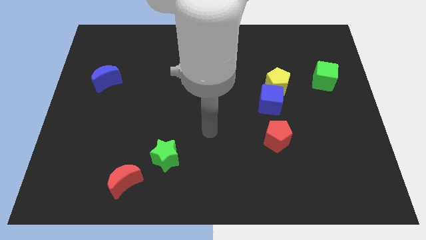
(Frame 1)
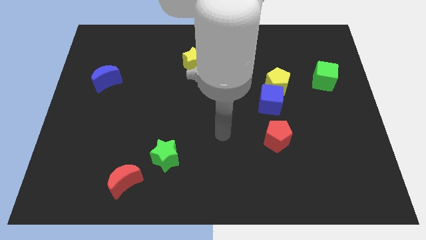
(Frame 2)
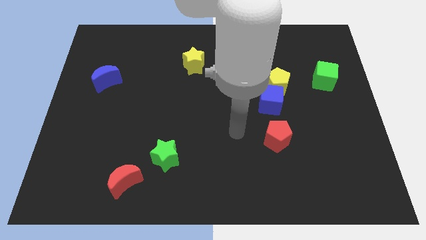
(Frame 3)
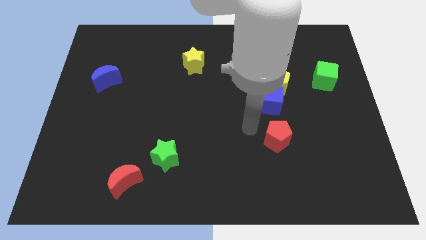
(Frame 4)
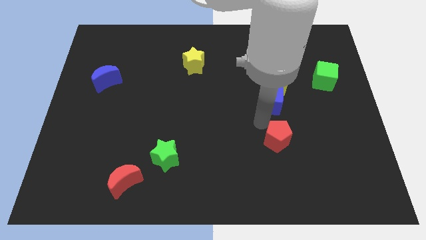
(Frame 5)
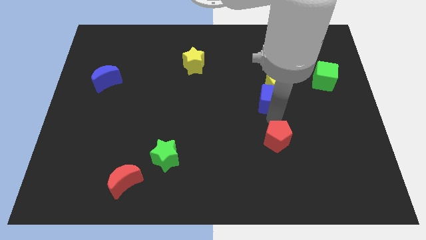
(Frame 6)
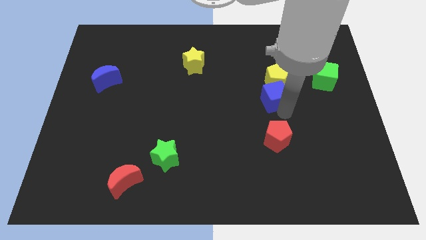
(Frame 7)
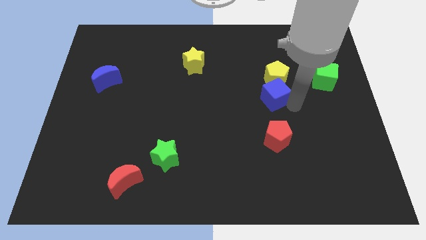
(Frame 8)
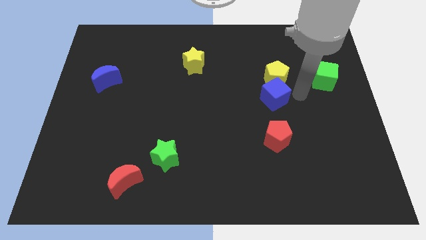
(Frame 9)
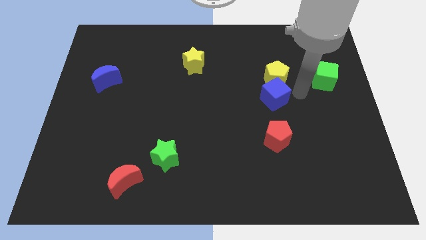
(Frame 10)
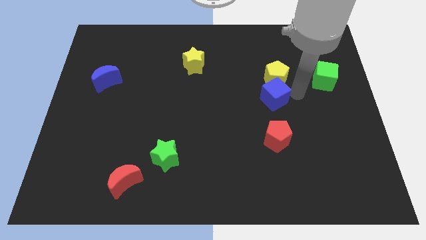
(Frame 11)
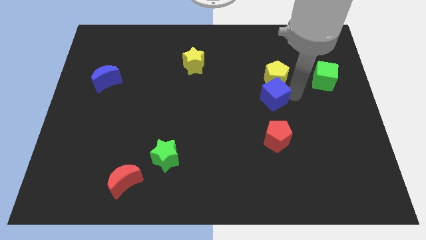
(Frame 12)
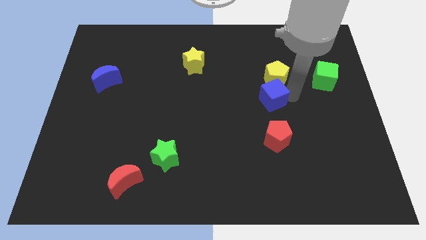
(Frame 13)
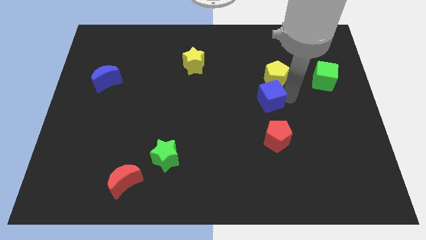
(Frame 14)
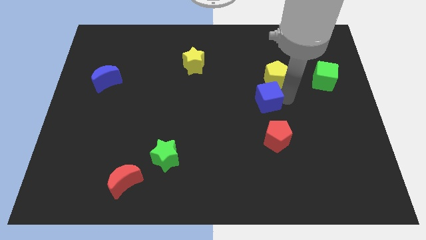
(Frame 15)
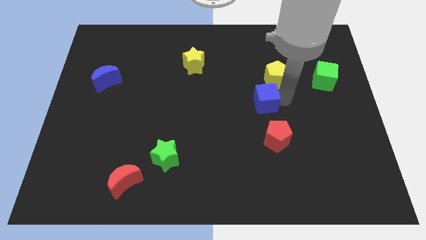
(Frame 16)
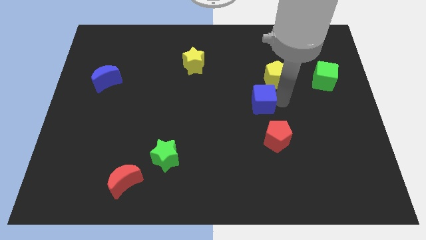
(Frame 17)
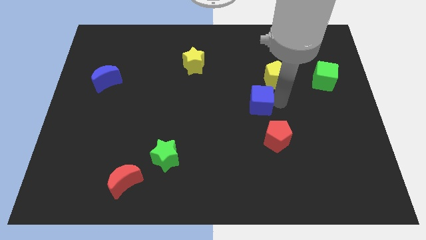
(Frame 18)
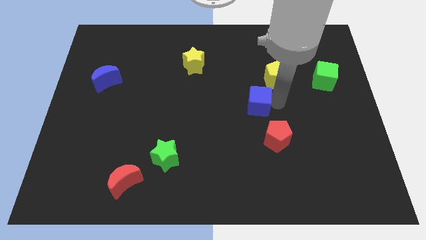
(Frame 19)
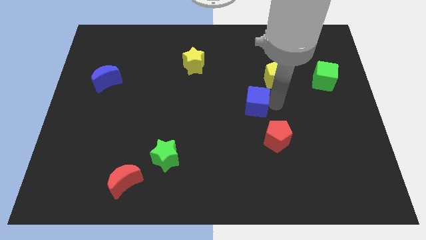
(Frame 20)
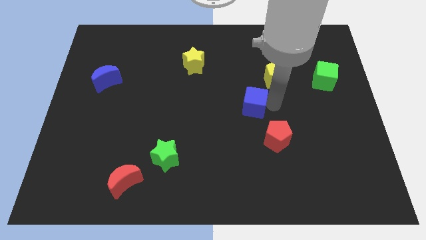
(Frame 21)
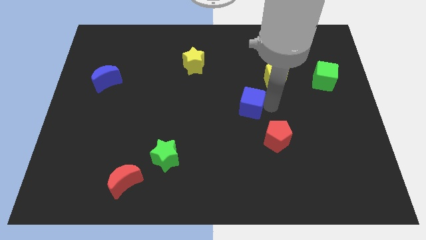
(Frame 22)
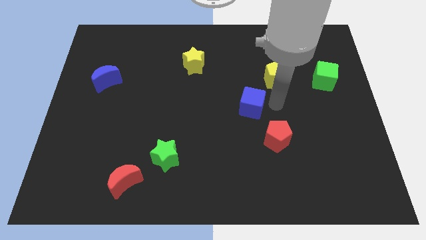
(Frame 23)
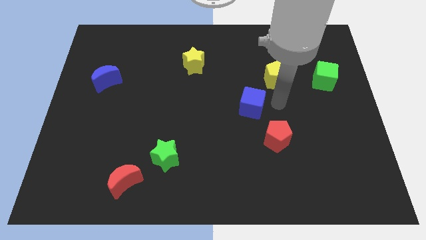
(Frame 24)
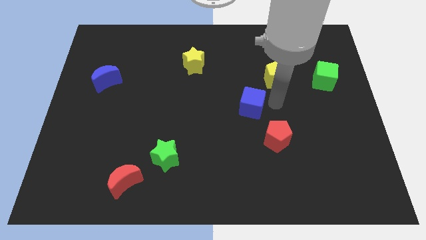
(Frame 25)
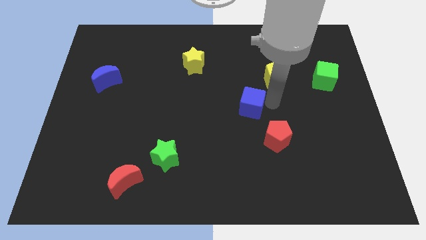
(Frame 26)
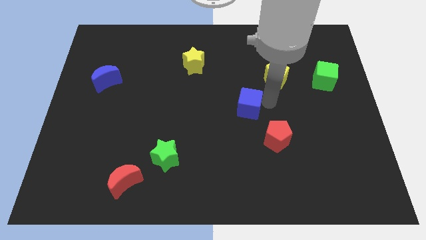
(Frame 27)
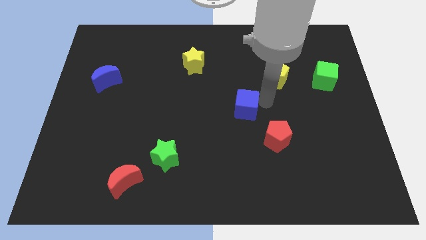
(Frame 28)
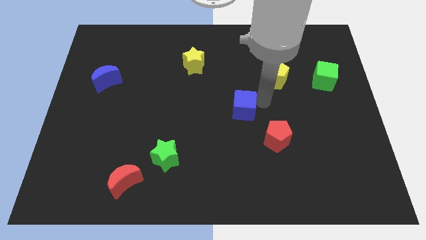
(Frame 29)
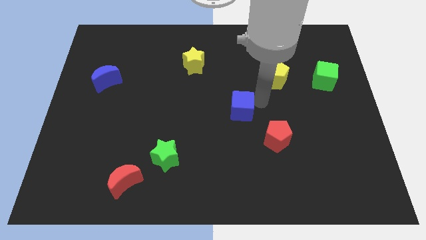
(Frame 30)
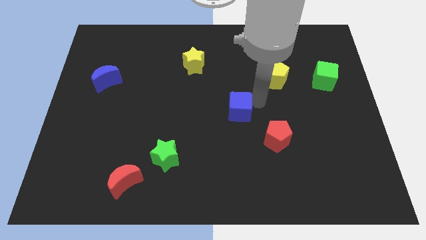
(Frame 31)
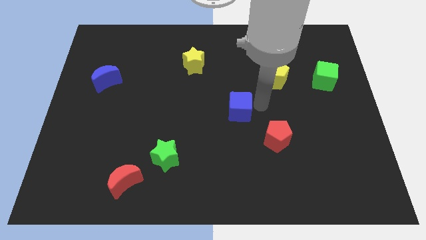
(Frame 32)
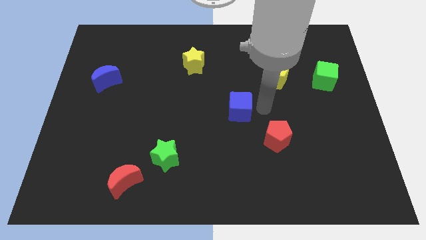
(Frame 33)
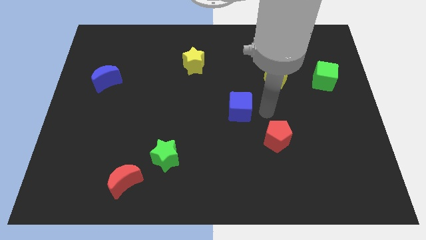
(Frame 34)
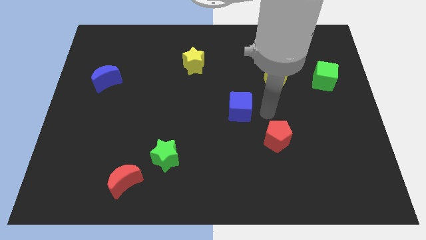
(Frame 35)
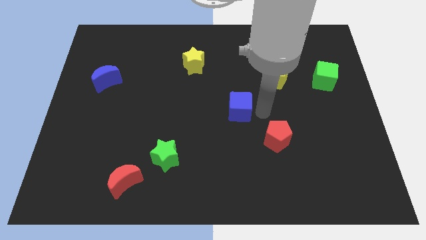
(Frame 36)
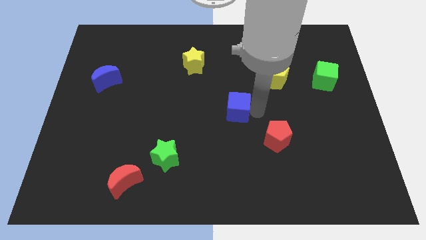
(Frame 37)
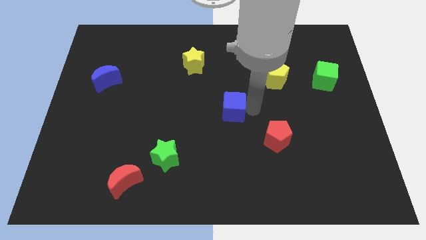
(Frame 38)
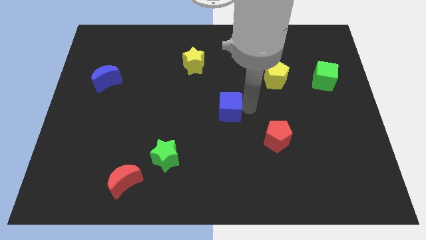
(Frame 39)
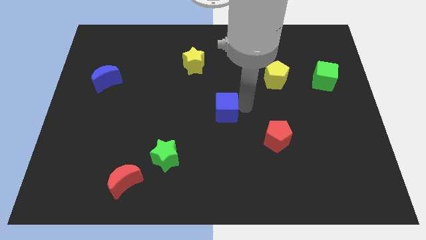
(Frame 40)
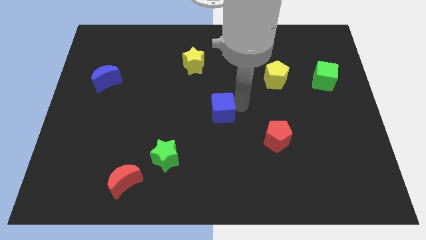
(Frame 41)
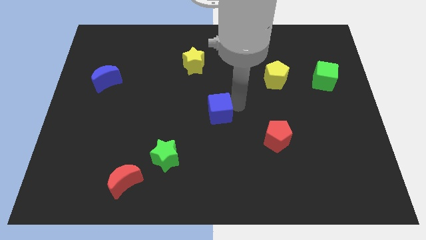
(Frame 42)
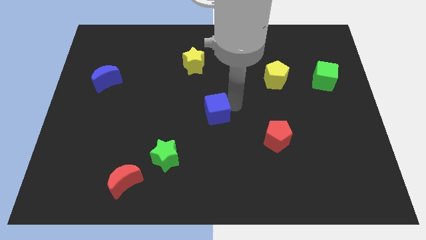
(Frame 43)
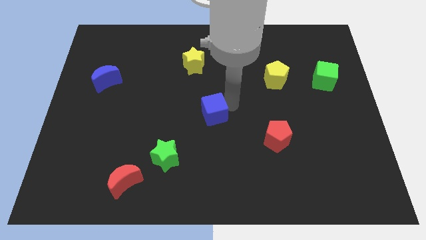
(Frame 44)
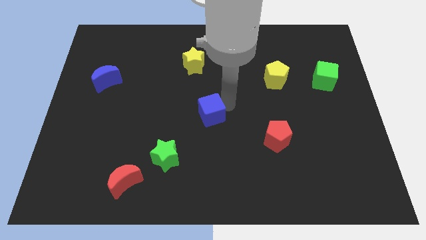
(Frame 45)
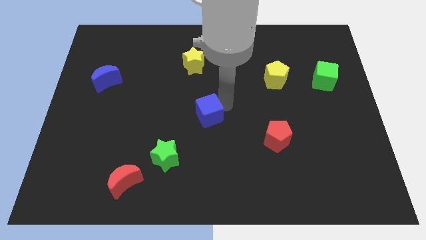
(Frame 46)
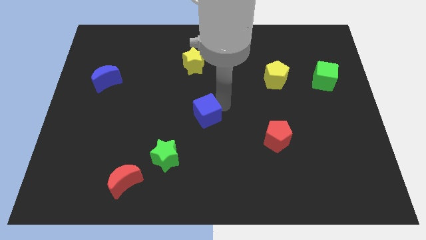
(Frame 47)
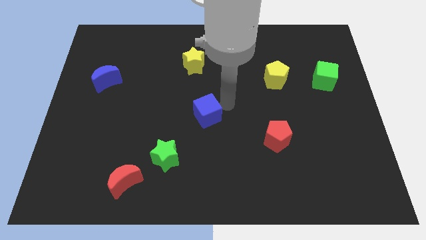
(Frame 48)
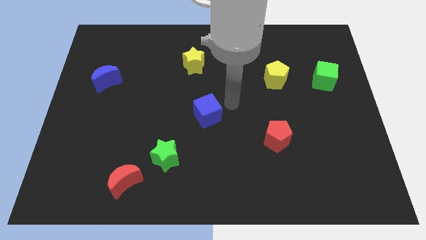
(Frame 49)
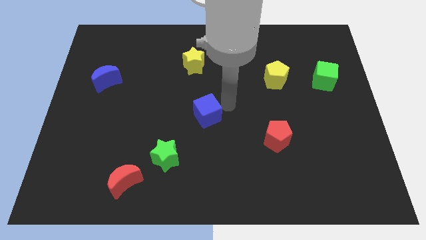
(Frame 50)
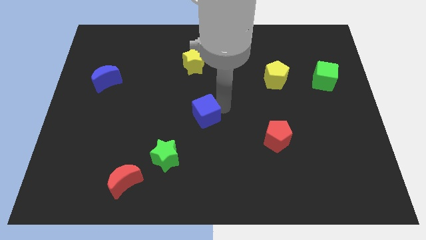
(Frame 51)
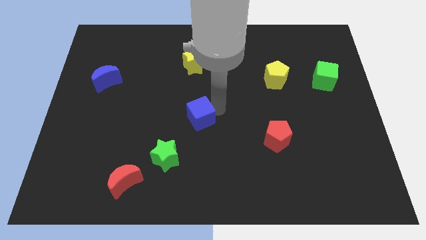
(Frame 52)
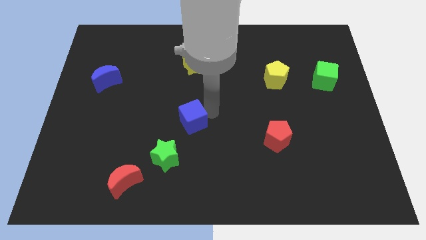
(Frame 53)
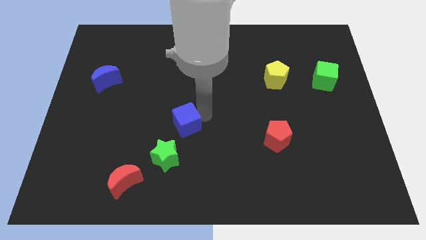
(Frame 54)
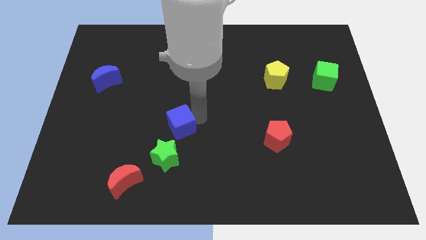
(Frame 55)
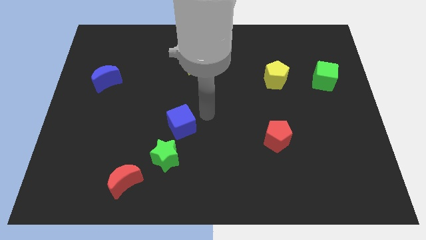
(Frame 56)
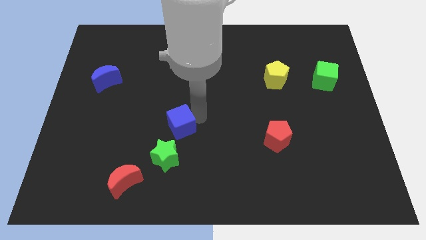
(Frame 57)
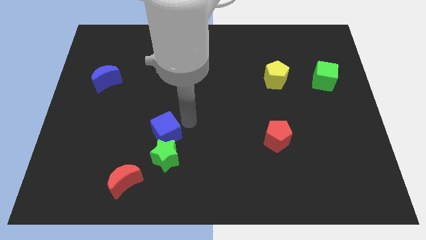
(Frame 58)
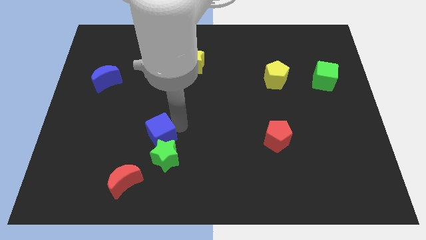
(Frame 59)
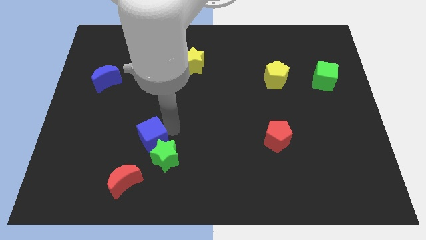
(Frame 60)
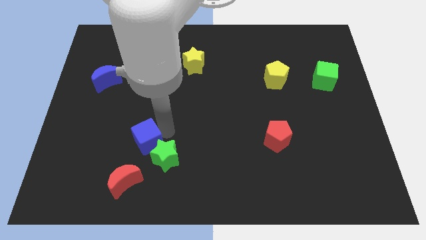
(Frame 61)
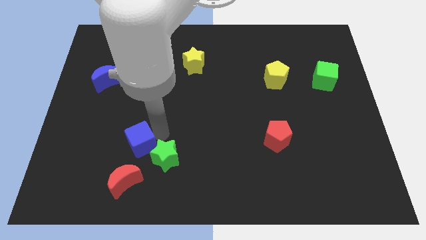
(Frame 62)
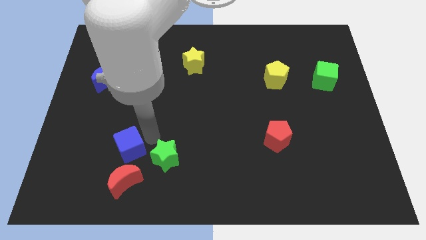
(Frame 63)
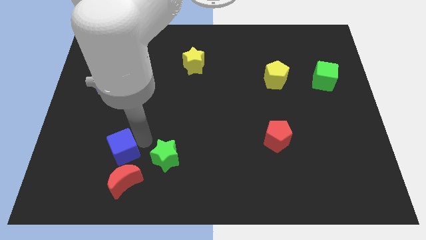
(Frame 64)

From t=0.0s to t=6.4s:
move the blue cube to the top left side of the red moon

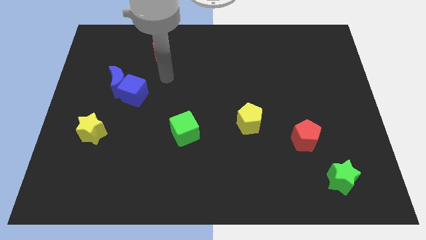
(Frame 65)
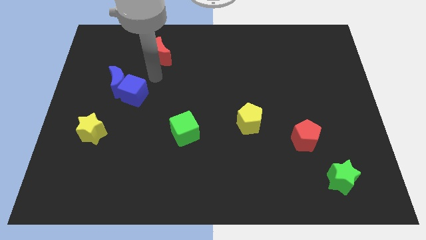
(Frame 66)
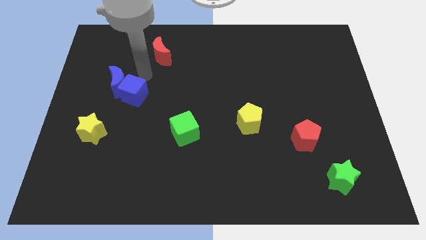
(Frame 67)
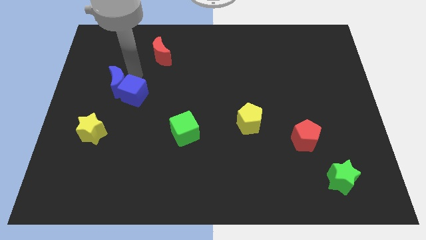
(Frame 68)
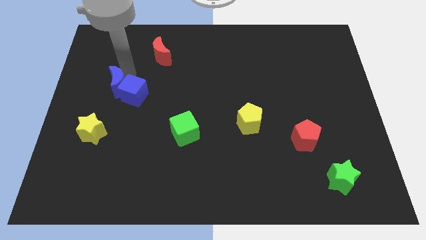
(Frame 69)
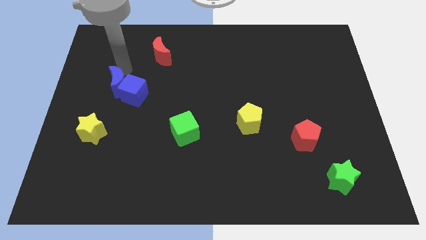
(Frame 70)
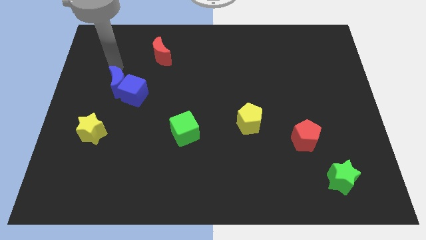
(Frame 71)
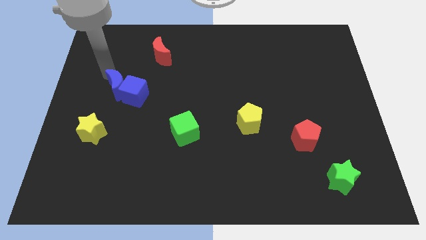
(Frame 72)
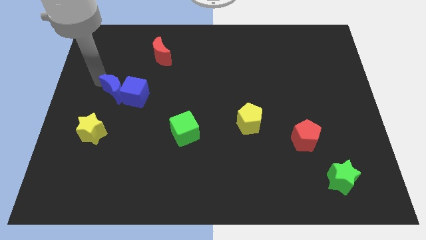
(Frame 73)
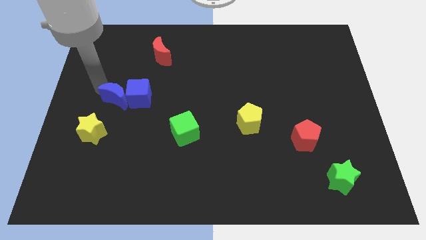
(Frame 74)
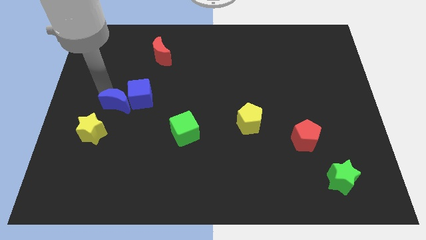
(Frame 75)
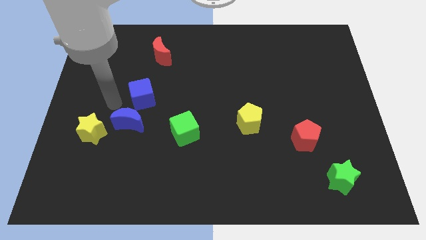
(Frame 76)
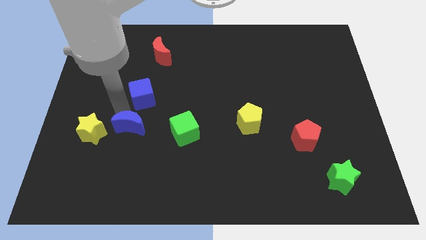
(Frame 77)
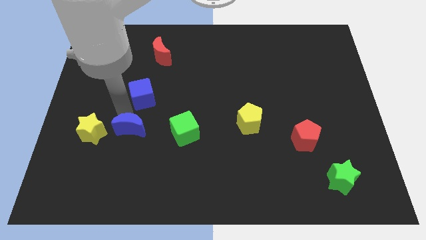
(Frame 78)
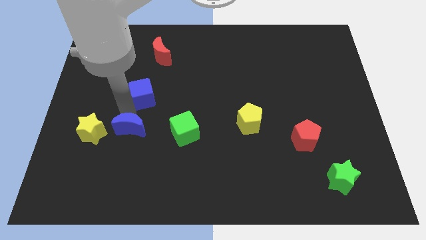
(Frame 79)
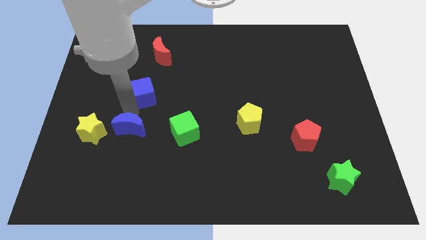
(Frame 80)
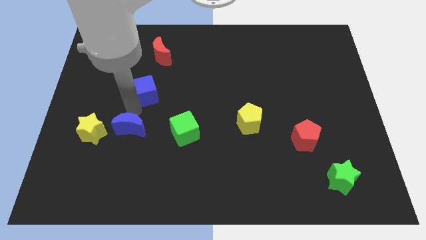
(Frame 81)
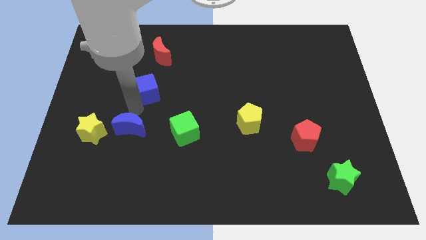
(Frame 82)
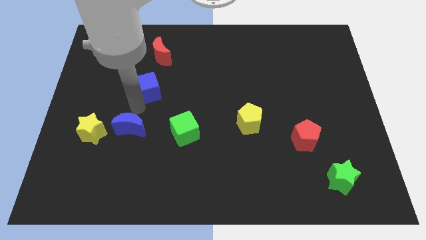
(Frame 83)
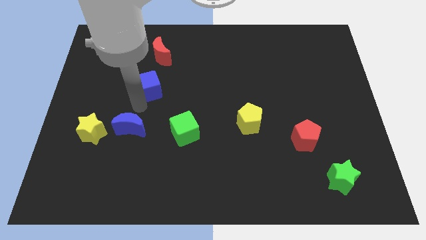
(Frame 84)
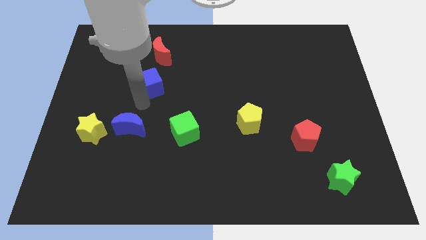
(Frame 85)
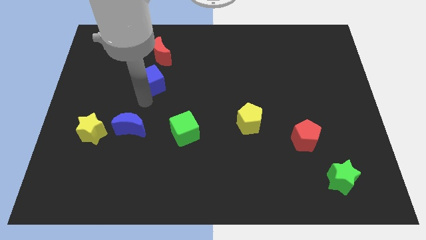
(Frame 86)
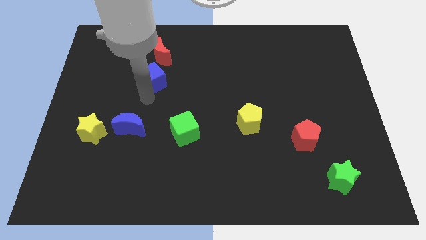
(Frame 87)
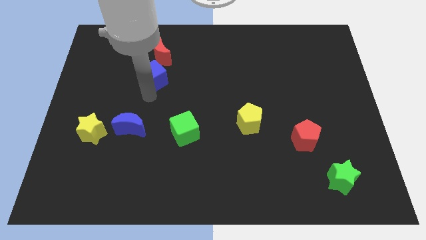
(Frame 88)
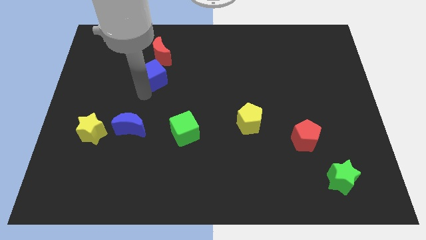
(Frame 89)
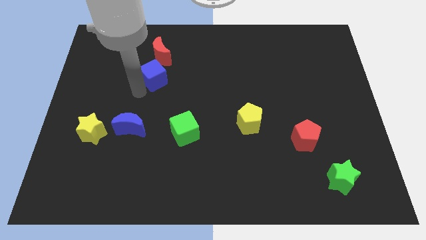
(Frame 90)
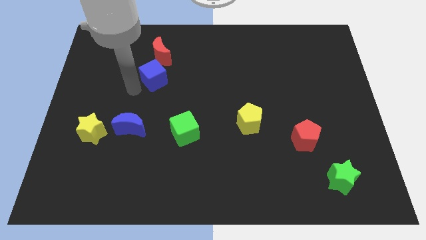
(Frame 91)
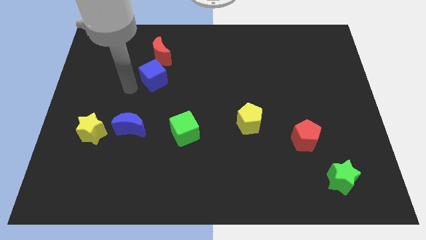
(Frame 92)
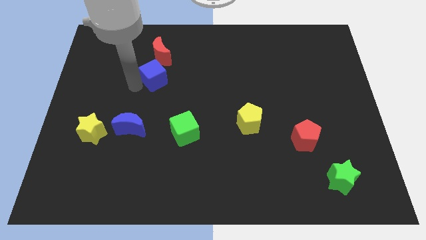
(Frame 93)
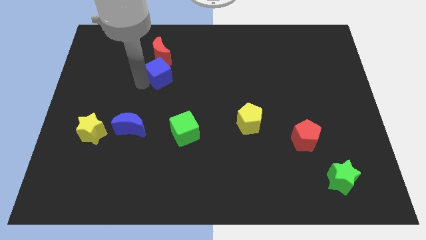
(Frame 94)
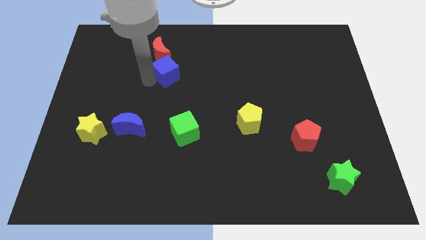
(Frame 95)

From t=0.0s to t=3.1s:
push the blue cube diagonally down and to the right of the red moon
